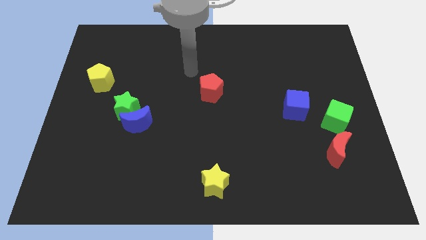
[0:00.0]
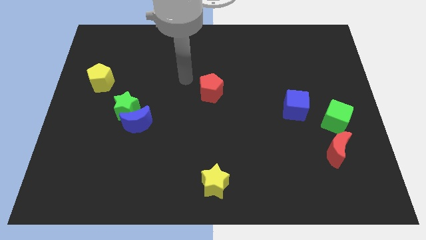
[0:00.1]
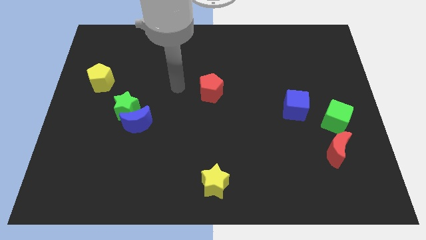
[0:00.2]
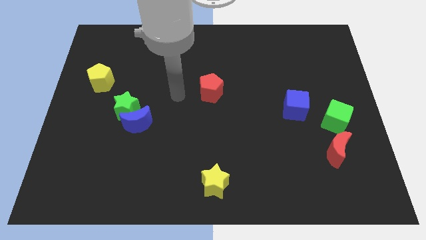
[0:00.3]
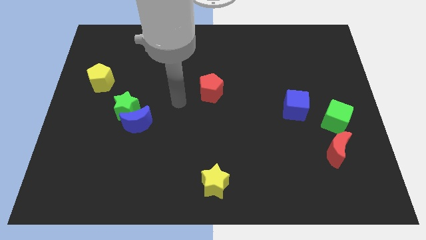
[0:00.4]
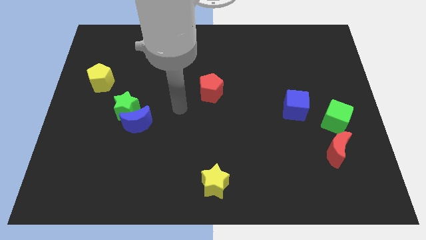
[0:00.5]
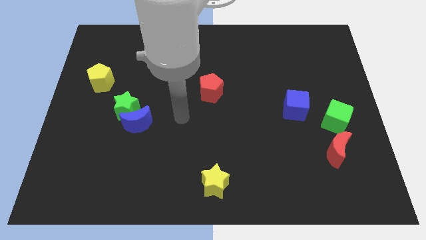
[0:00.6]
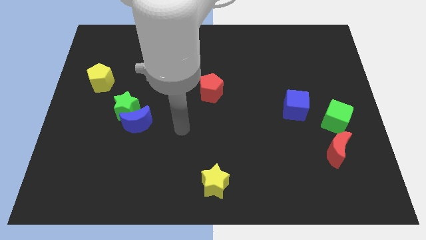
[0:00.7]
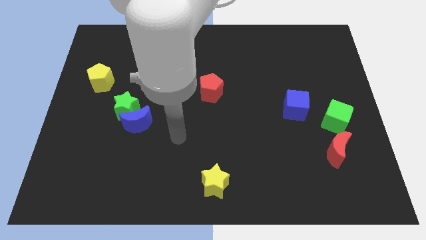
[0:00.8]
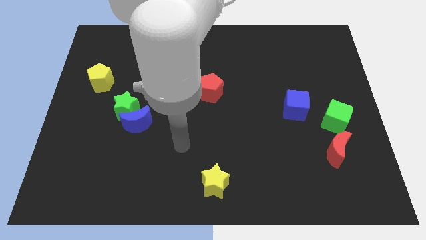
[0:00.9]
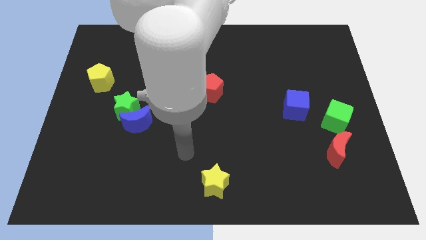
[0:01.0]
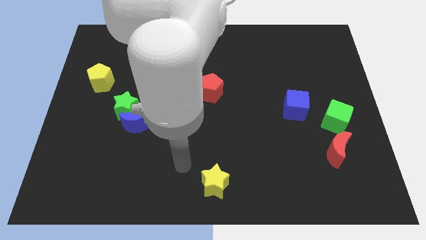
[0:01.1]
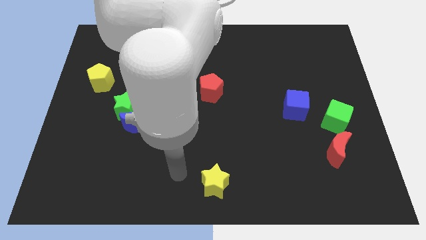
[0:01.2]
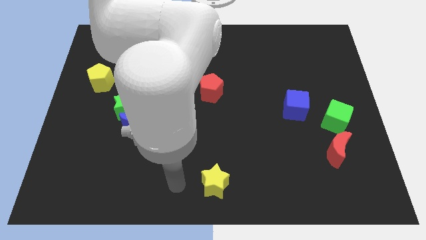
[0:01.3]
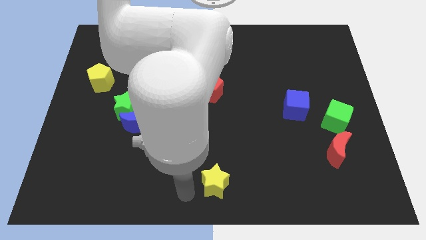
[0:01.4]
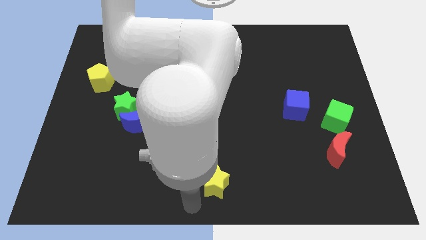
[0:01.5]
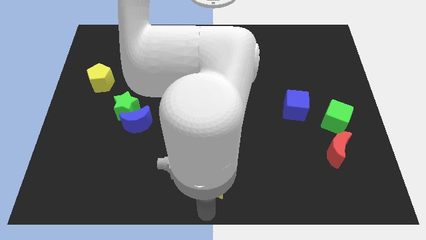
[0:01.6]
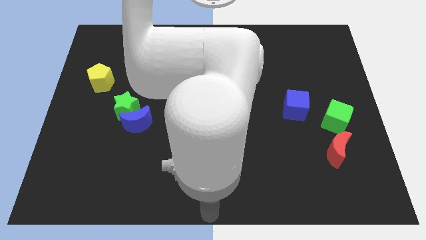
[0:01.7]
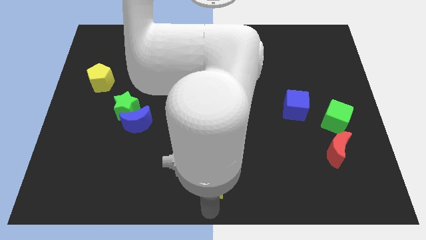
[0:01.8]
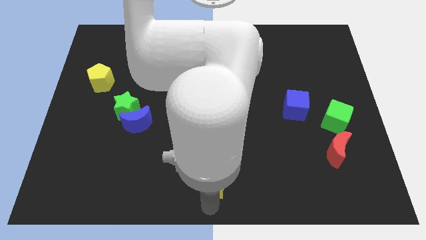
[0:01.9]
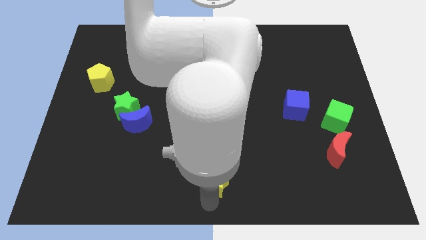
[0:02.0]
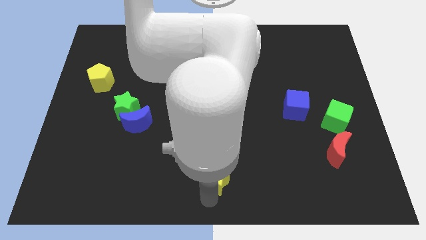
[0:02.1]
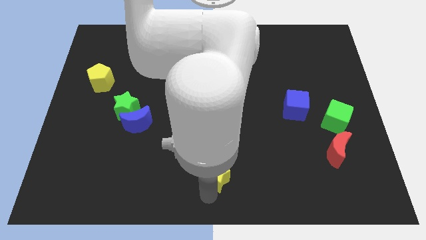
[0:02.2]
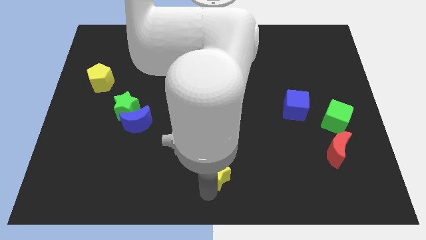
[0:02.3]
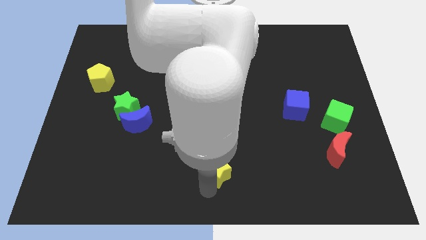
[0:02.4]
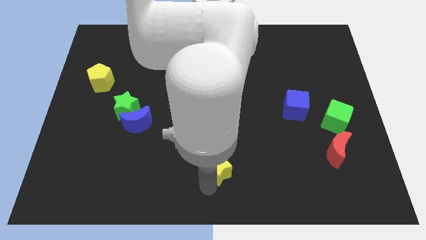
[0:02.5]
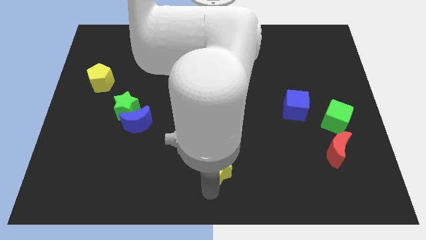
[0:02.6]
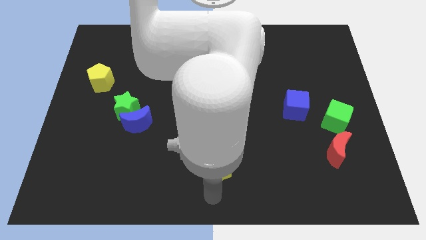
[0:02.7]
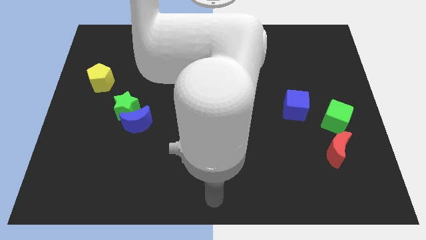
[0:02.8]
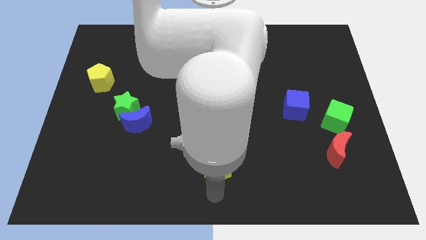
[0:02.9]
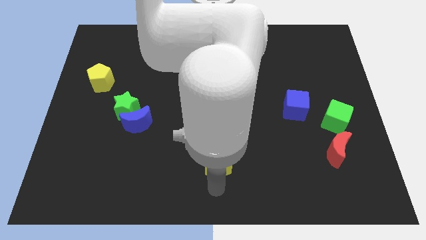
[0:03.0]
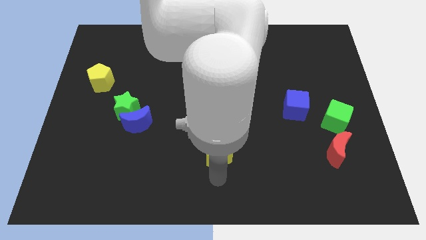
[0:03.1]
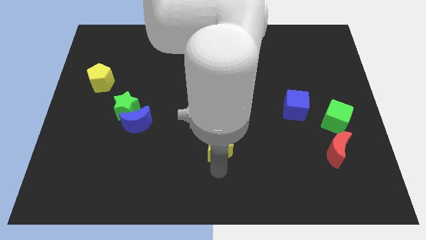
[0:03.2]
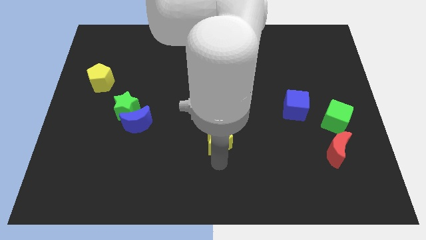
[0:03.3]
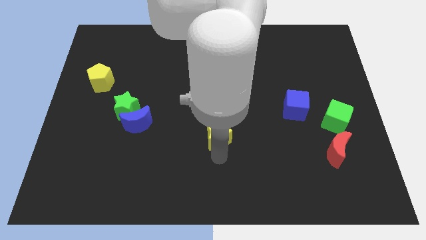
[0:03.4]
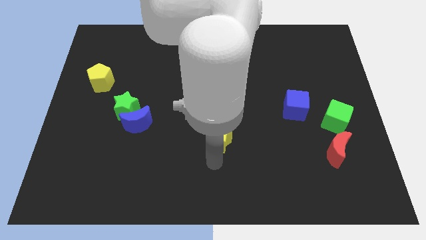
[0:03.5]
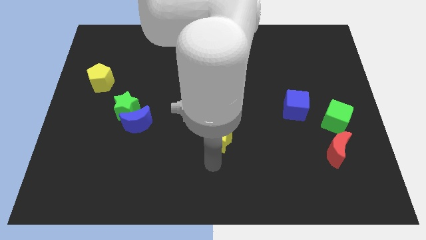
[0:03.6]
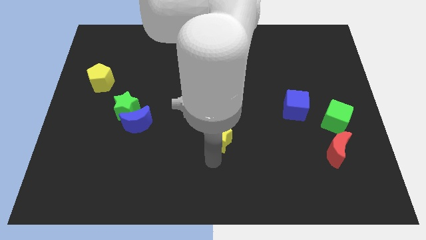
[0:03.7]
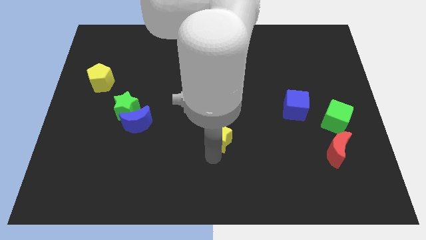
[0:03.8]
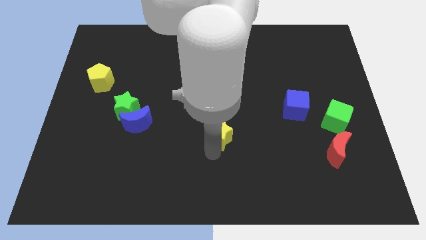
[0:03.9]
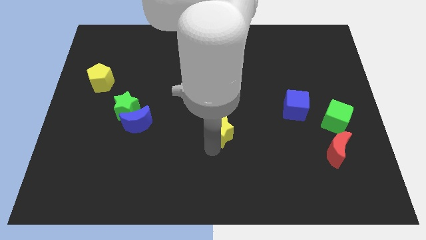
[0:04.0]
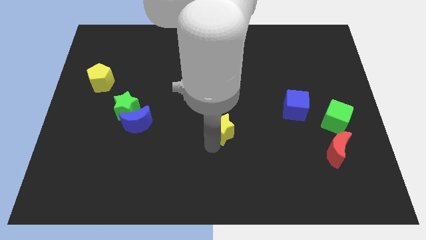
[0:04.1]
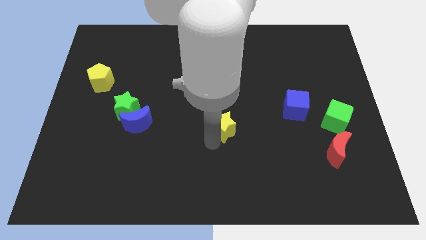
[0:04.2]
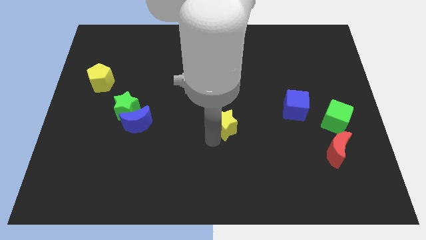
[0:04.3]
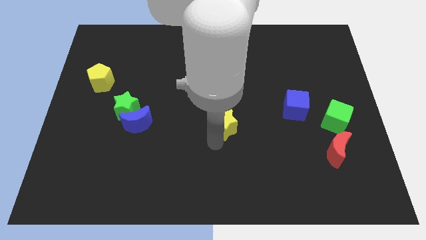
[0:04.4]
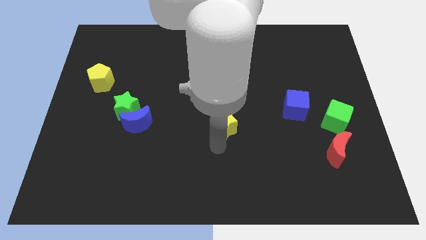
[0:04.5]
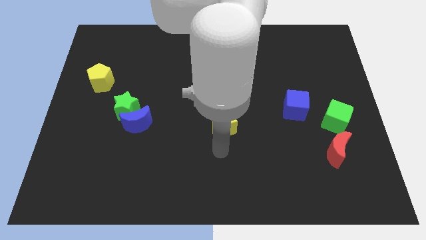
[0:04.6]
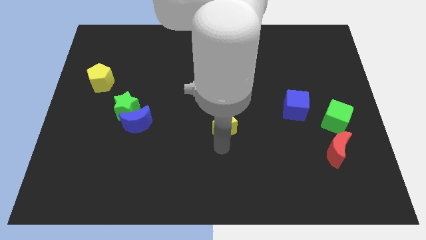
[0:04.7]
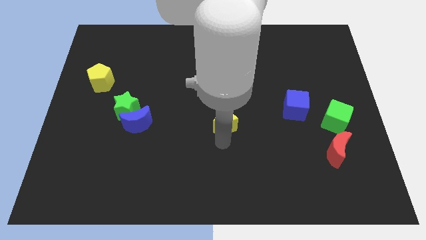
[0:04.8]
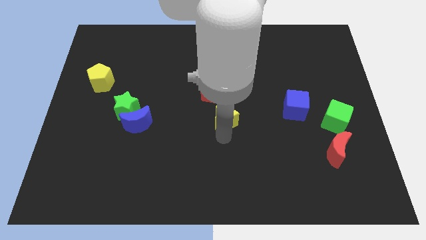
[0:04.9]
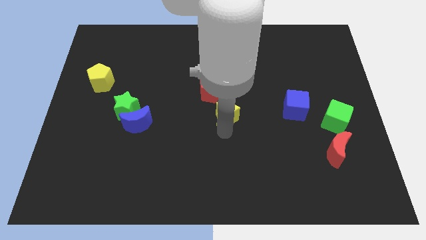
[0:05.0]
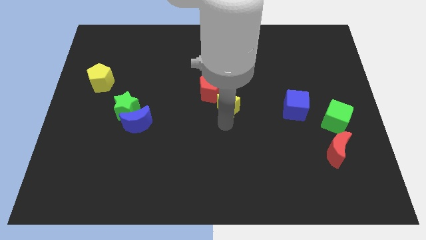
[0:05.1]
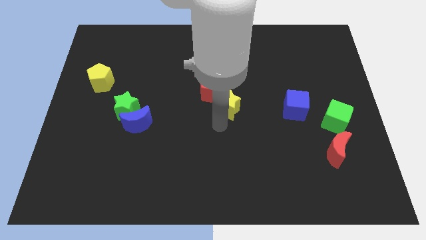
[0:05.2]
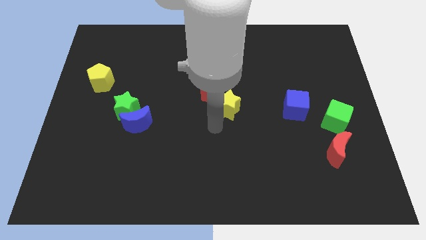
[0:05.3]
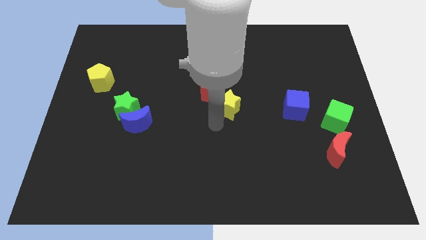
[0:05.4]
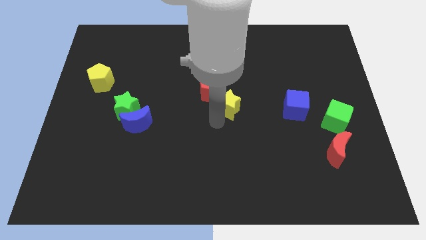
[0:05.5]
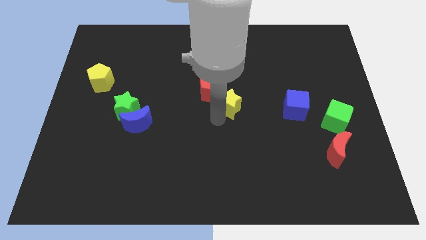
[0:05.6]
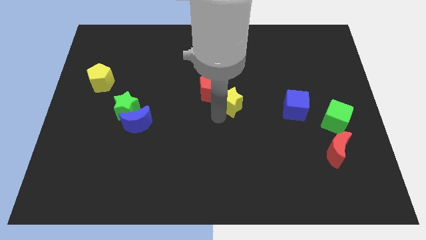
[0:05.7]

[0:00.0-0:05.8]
move the yellow star up

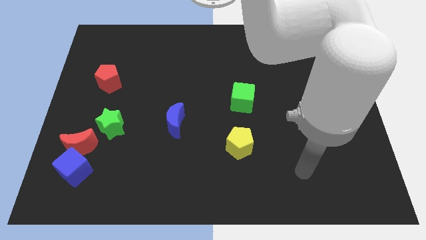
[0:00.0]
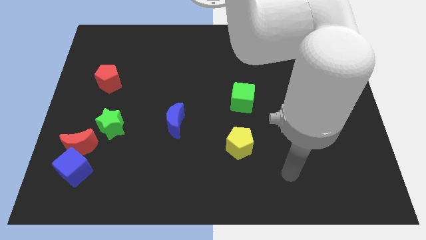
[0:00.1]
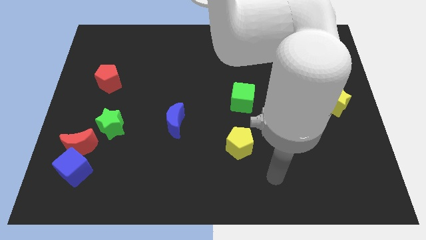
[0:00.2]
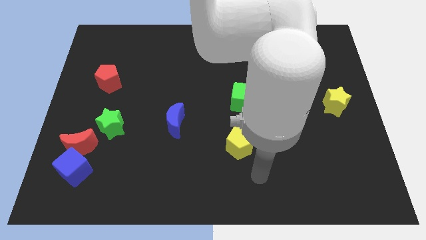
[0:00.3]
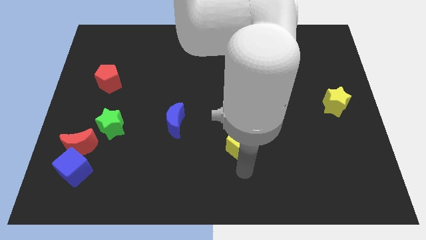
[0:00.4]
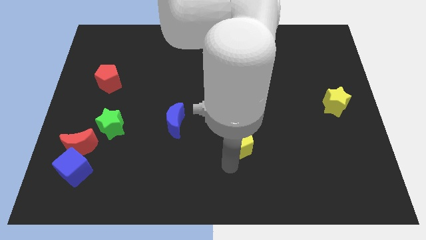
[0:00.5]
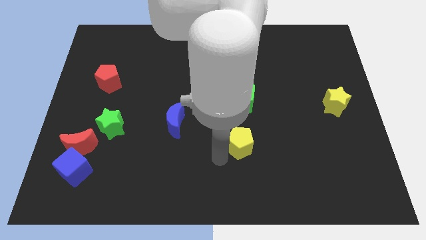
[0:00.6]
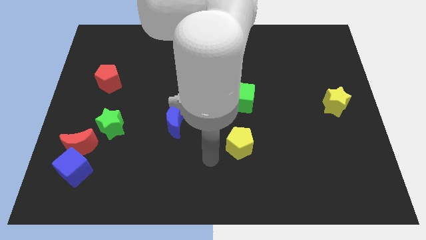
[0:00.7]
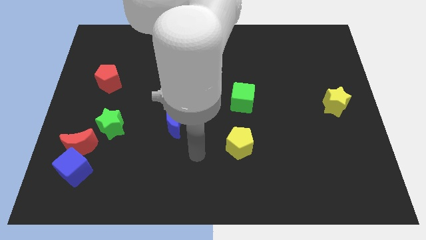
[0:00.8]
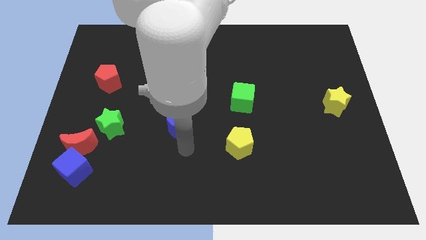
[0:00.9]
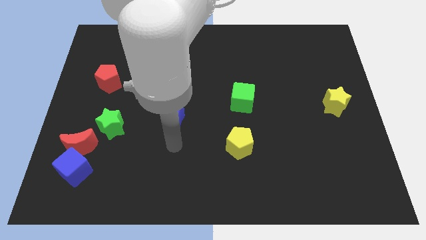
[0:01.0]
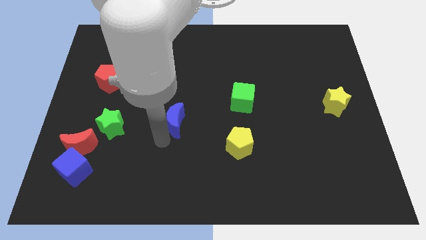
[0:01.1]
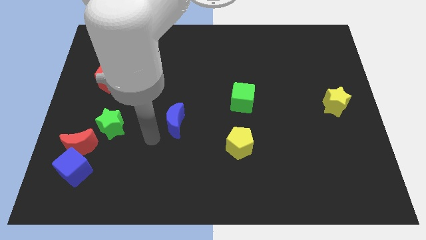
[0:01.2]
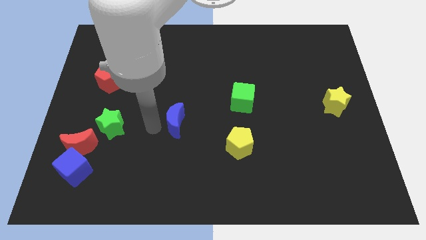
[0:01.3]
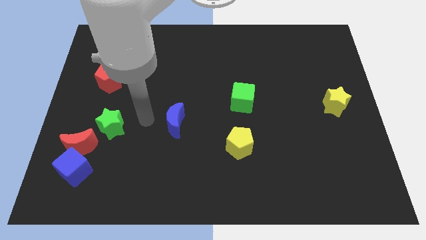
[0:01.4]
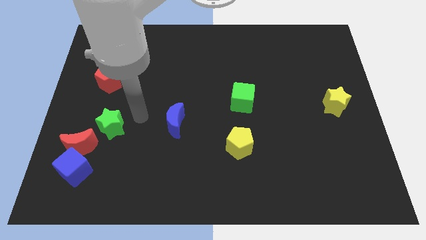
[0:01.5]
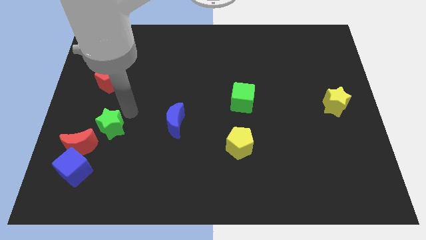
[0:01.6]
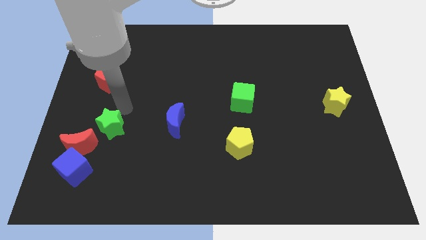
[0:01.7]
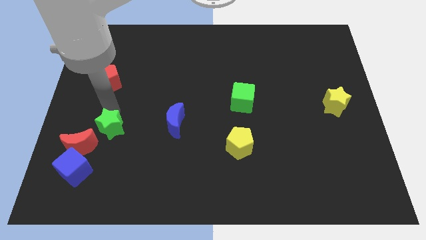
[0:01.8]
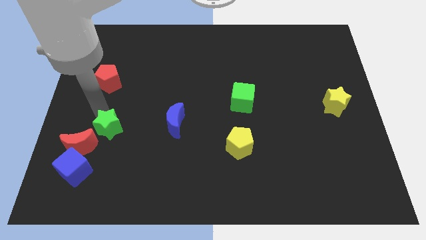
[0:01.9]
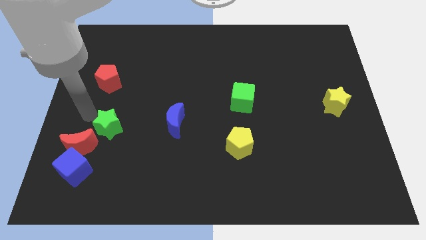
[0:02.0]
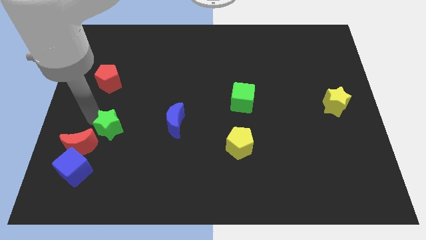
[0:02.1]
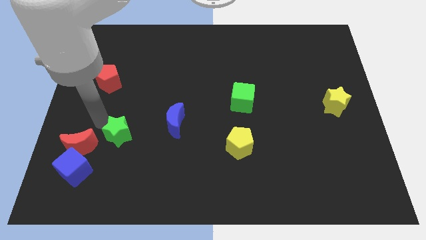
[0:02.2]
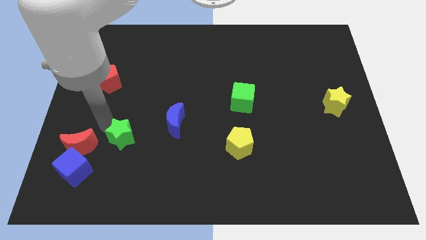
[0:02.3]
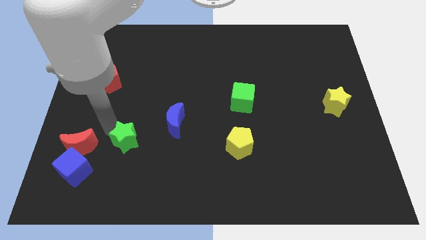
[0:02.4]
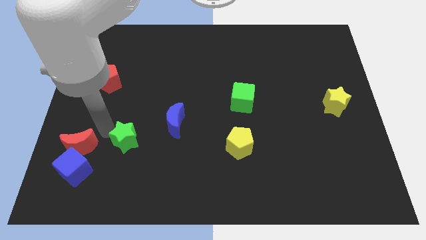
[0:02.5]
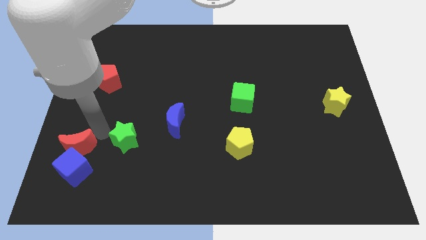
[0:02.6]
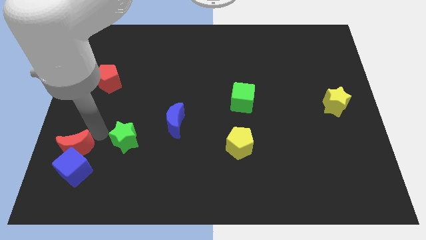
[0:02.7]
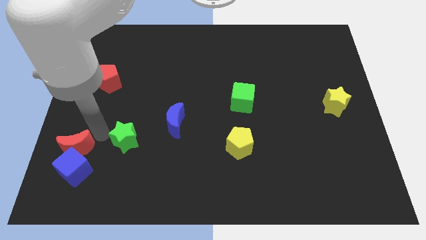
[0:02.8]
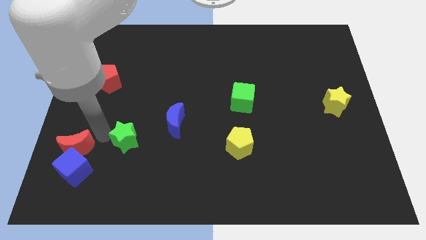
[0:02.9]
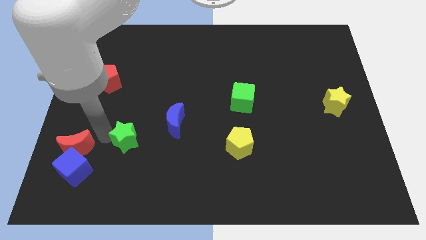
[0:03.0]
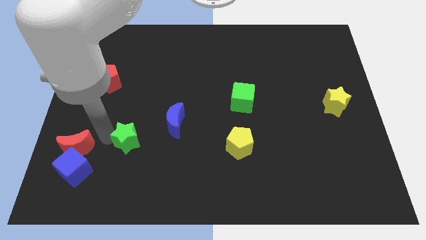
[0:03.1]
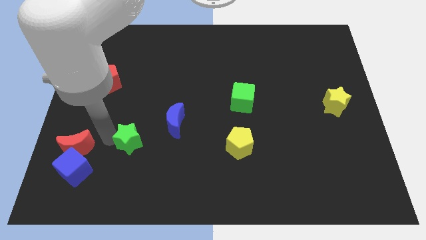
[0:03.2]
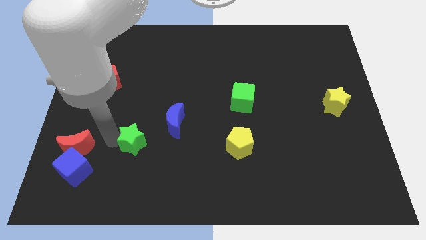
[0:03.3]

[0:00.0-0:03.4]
push the green star a little down and to the right
